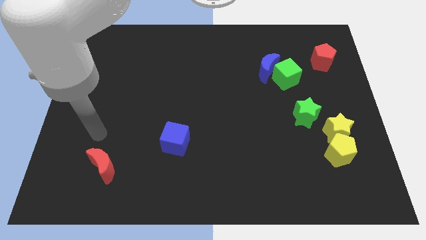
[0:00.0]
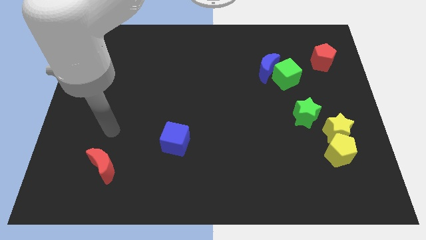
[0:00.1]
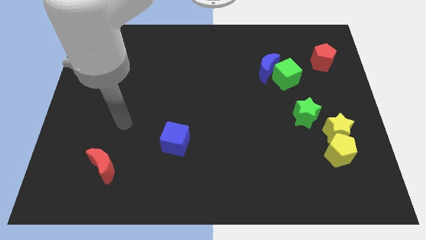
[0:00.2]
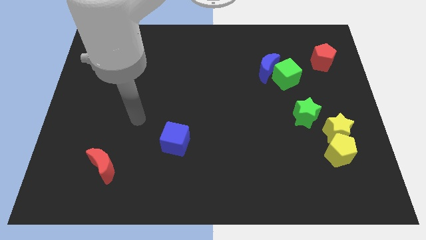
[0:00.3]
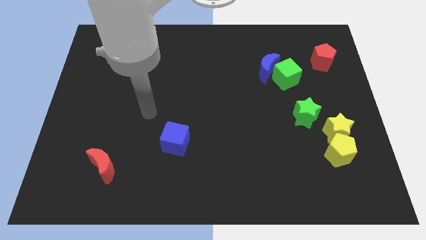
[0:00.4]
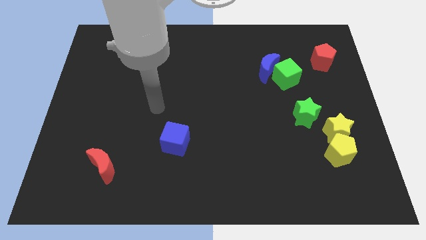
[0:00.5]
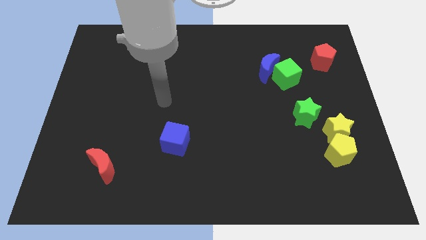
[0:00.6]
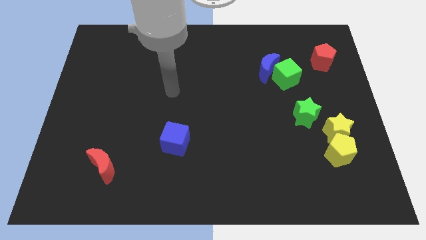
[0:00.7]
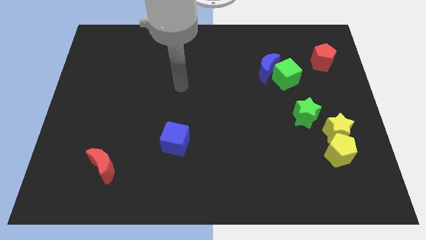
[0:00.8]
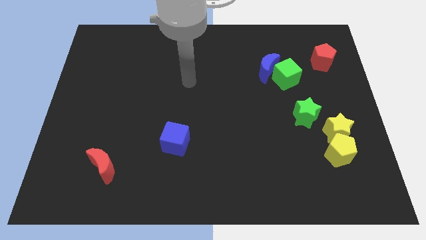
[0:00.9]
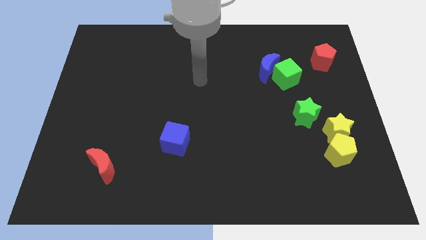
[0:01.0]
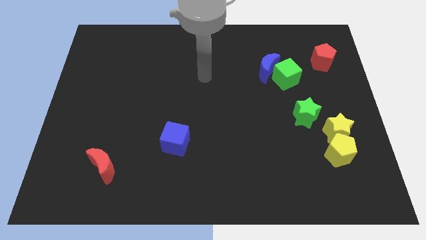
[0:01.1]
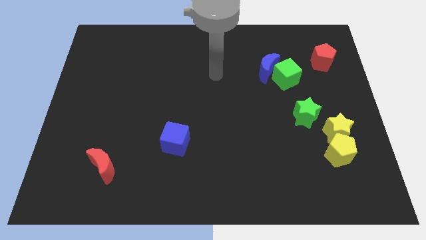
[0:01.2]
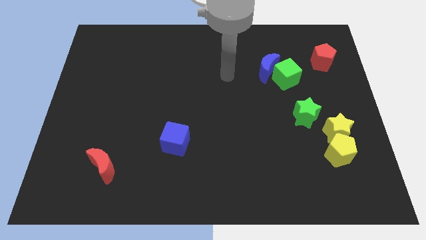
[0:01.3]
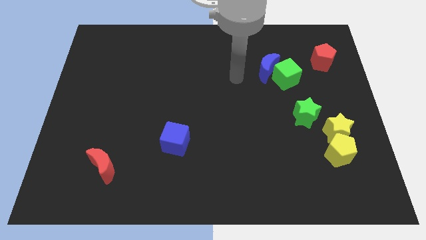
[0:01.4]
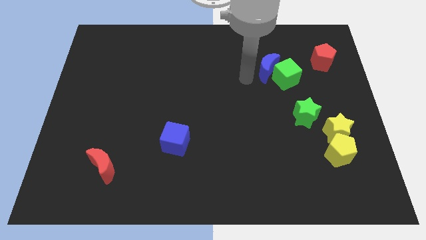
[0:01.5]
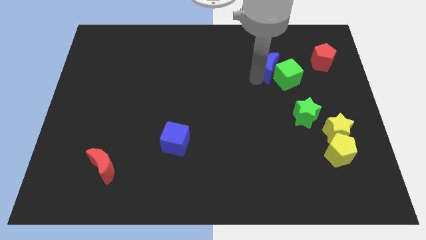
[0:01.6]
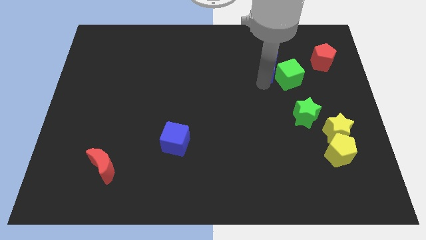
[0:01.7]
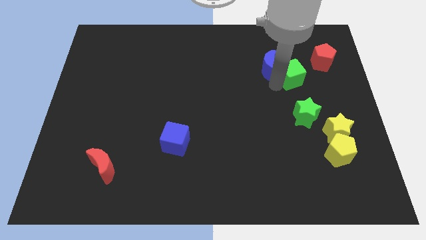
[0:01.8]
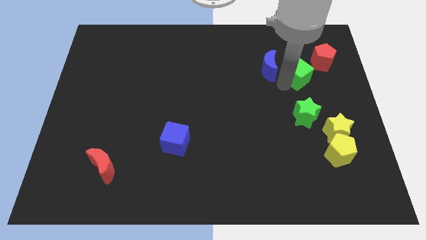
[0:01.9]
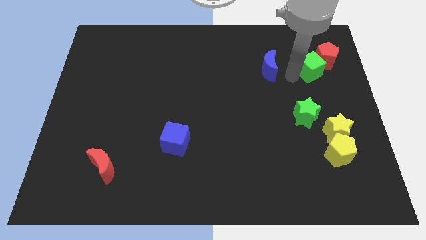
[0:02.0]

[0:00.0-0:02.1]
pull the blue moon apart from the green cube

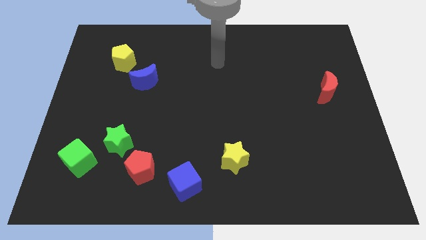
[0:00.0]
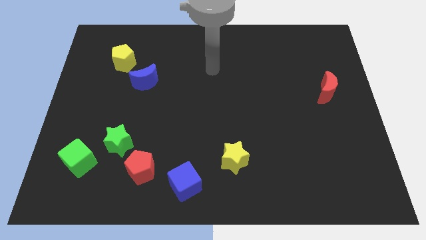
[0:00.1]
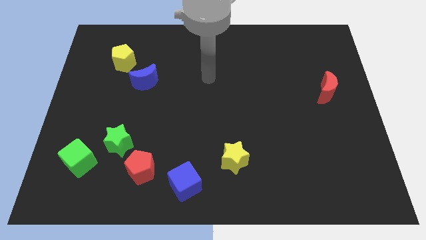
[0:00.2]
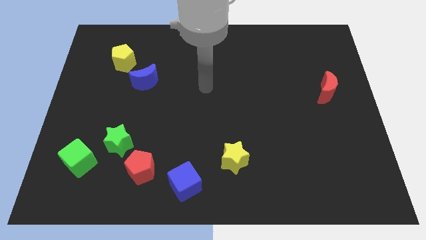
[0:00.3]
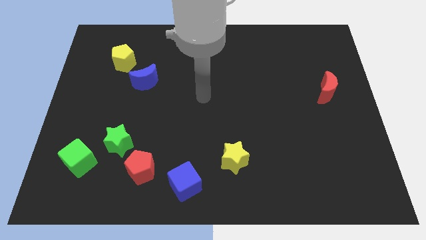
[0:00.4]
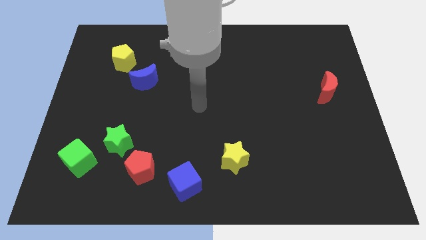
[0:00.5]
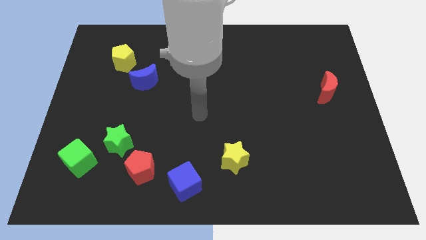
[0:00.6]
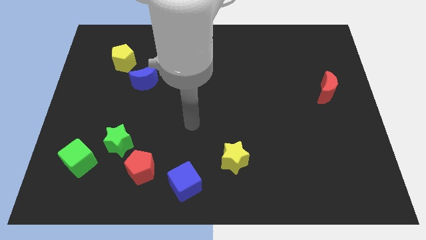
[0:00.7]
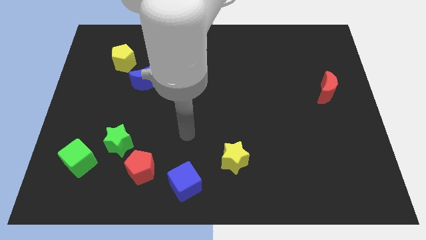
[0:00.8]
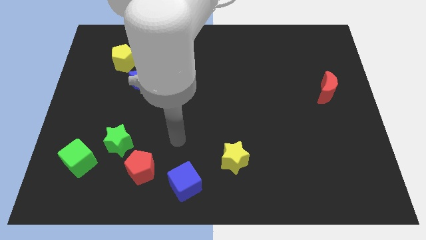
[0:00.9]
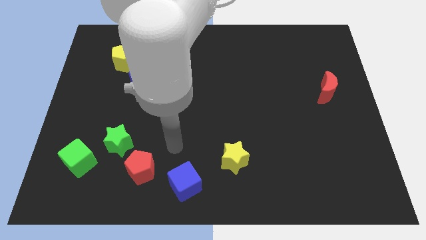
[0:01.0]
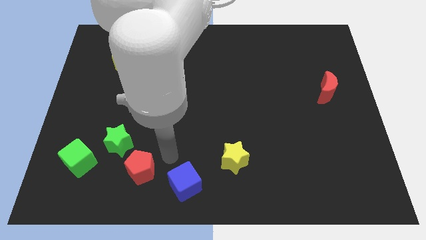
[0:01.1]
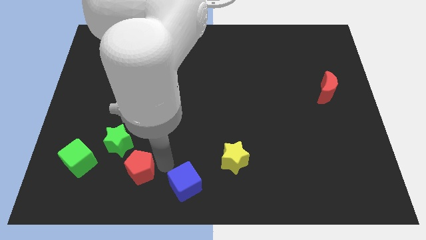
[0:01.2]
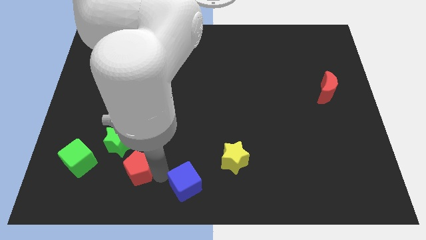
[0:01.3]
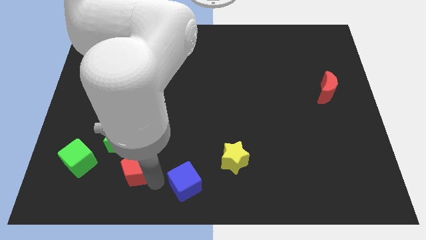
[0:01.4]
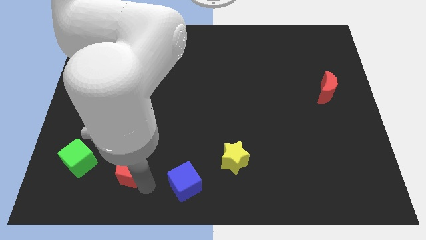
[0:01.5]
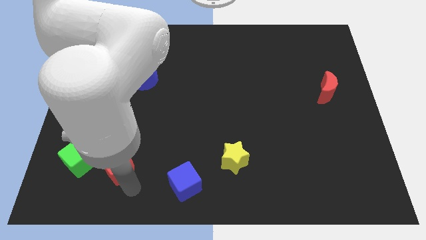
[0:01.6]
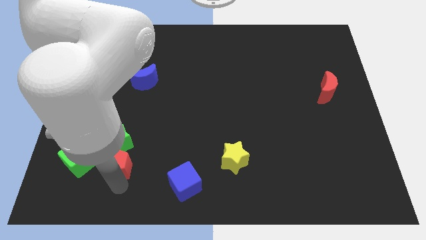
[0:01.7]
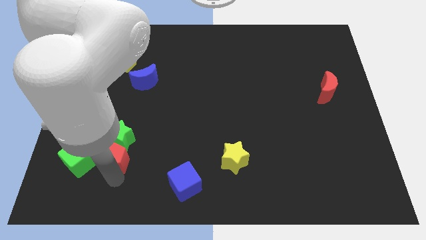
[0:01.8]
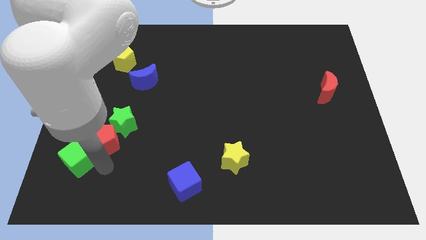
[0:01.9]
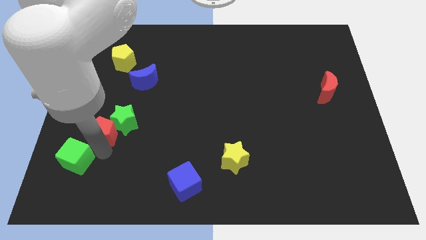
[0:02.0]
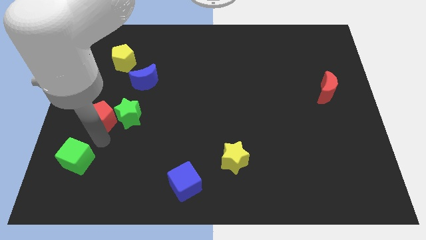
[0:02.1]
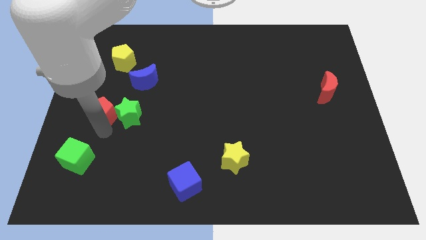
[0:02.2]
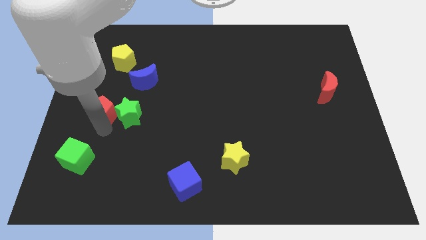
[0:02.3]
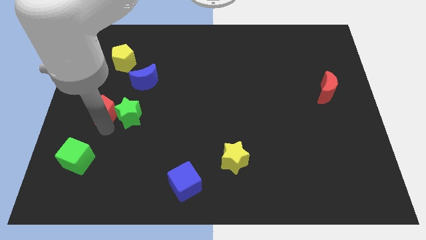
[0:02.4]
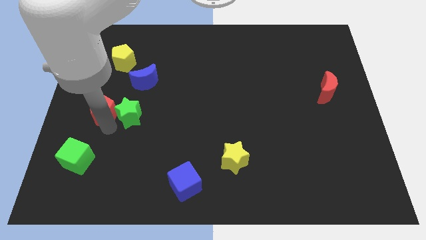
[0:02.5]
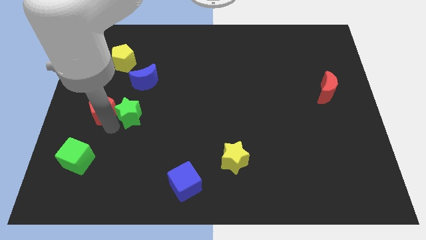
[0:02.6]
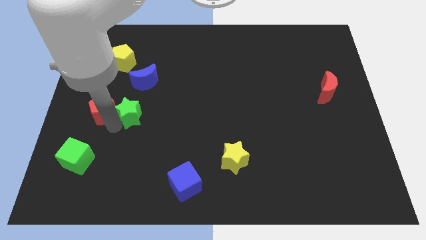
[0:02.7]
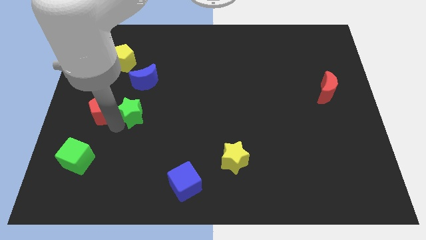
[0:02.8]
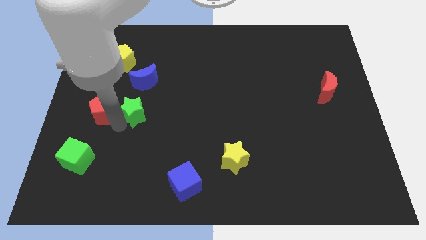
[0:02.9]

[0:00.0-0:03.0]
separate the green star from the red pentagon and green cube

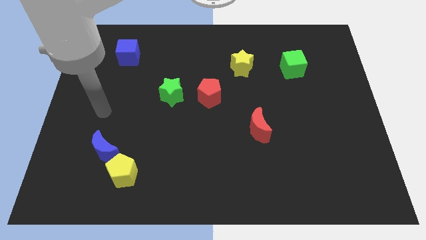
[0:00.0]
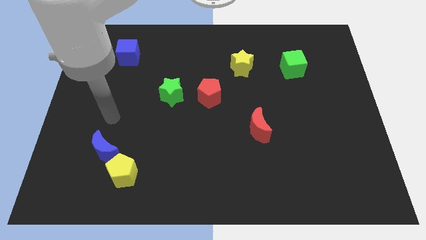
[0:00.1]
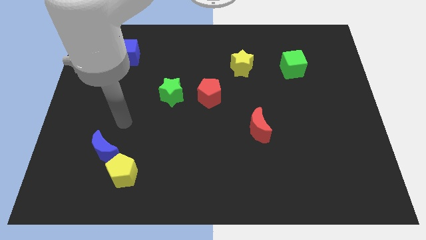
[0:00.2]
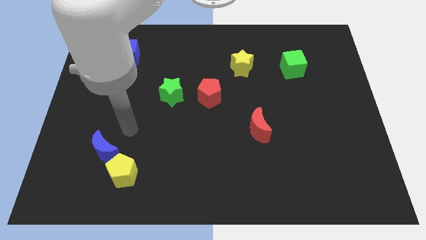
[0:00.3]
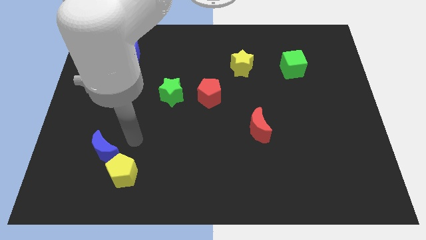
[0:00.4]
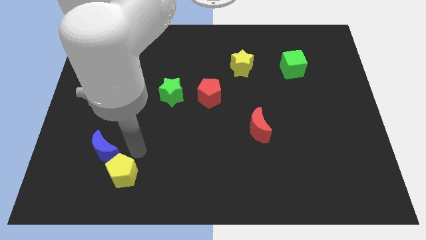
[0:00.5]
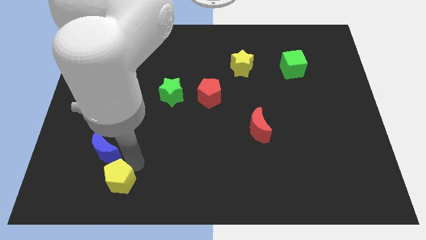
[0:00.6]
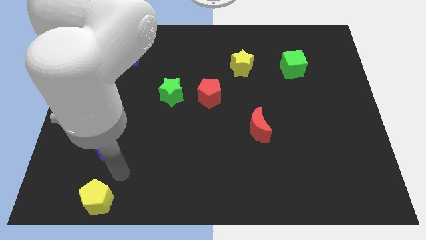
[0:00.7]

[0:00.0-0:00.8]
separate the blue moon from the yellow pentagon

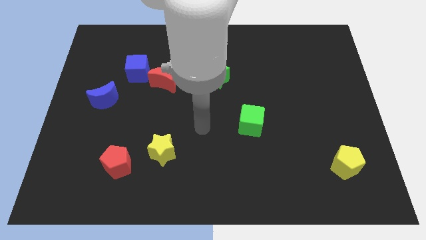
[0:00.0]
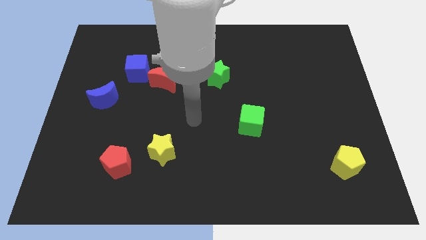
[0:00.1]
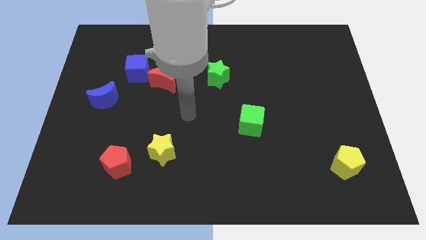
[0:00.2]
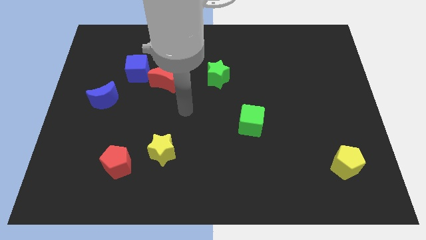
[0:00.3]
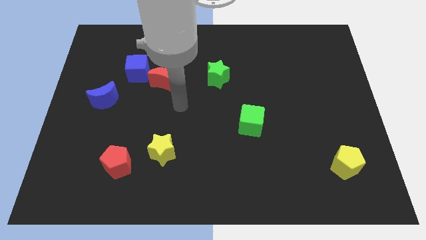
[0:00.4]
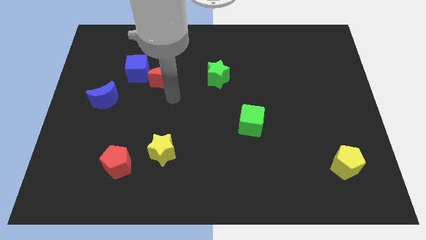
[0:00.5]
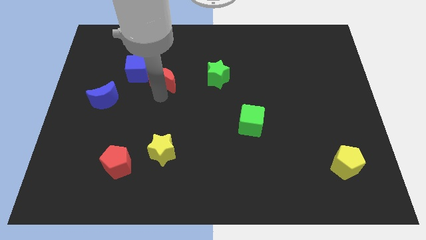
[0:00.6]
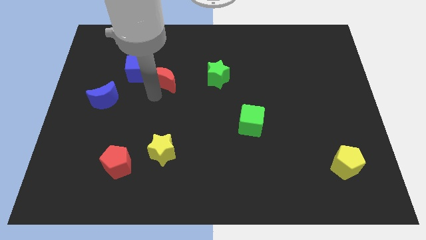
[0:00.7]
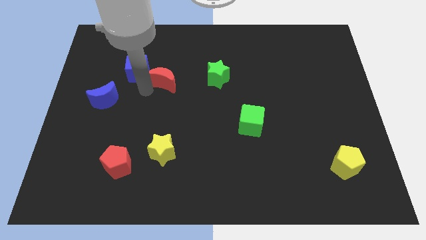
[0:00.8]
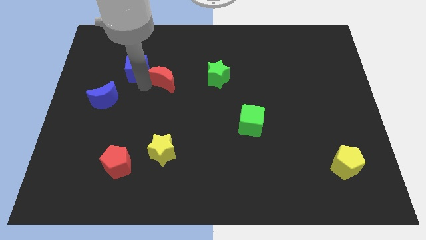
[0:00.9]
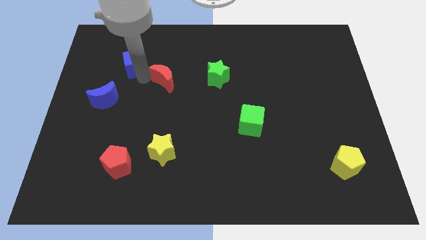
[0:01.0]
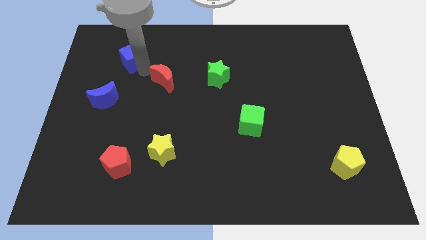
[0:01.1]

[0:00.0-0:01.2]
separate the red moon from the blue cube

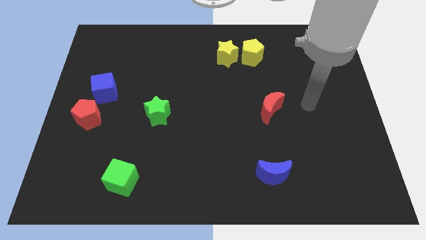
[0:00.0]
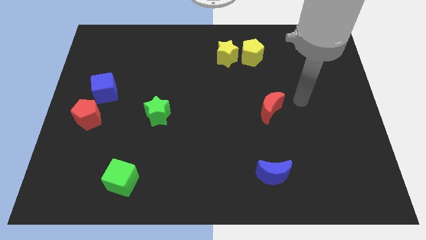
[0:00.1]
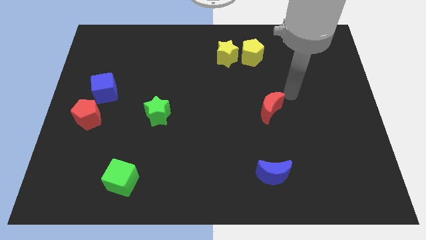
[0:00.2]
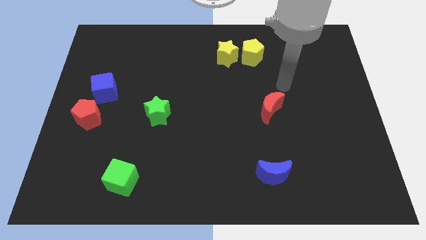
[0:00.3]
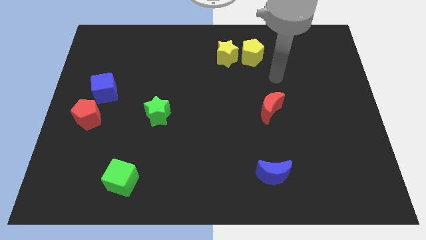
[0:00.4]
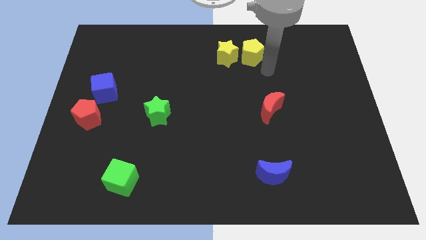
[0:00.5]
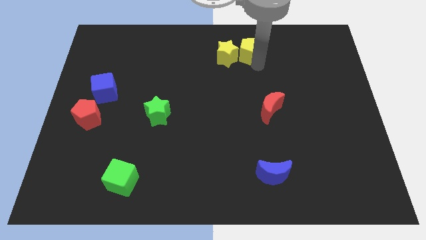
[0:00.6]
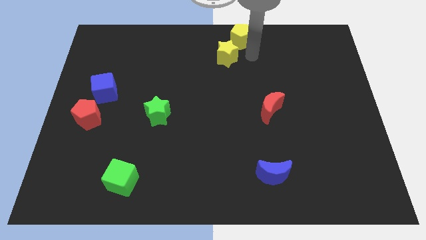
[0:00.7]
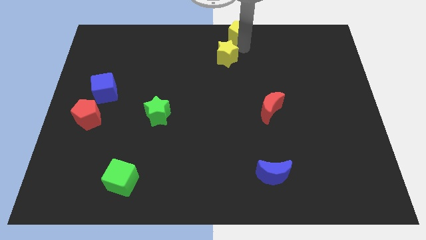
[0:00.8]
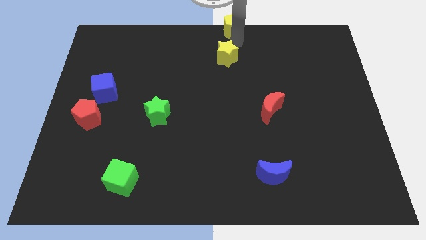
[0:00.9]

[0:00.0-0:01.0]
pull the yellow star apart from the yellow pentagon

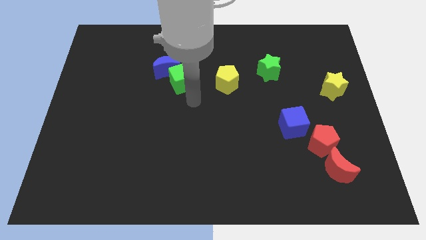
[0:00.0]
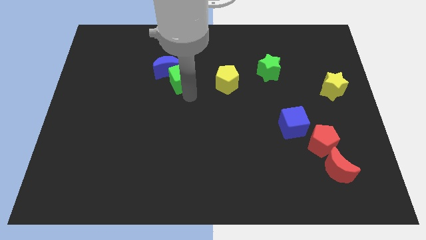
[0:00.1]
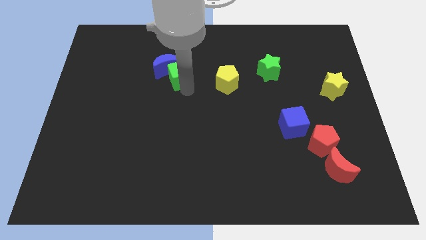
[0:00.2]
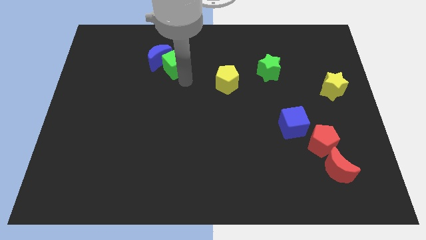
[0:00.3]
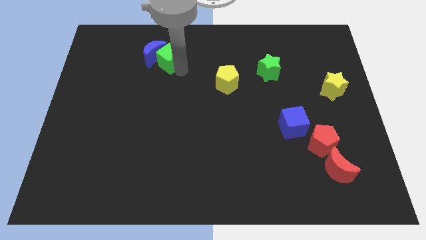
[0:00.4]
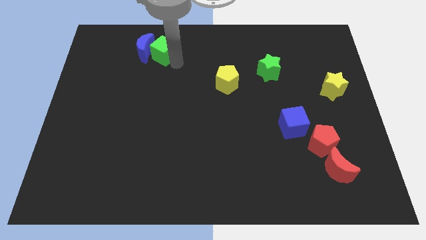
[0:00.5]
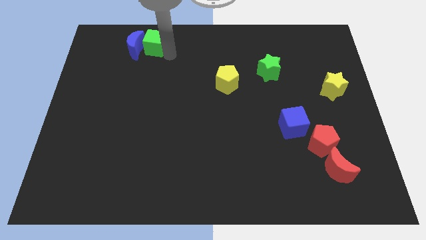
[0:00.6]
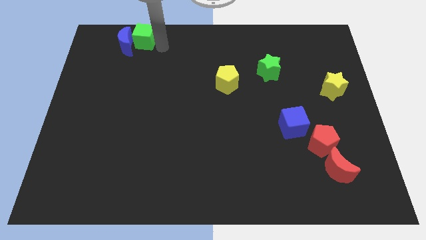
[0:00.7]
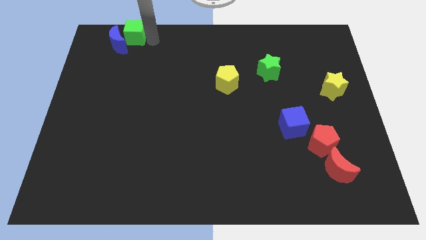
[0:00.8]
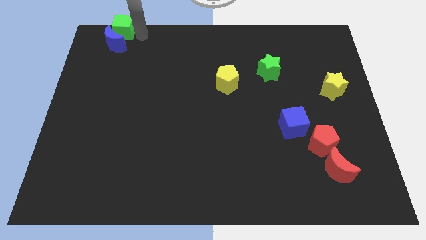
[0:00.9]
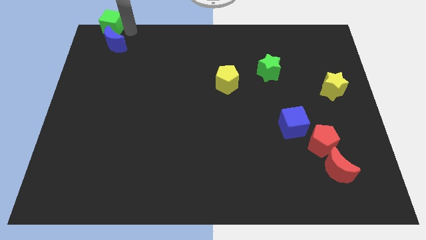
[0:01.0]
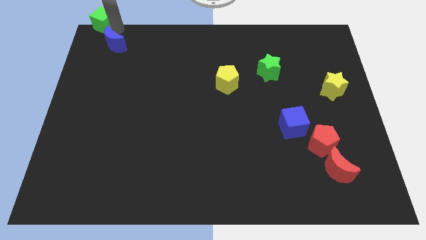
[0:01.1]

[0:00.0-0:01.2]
separate the blue moon from the green cube
